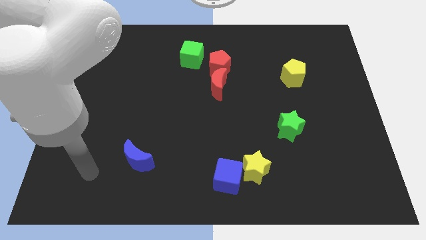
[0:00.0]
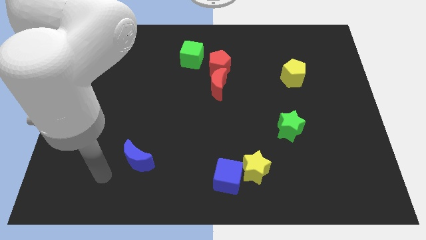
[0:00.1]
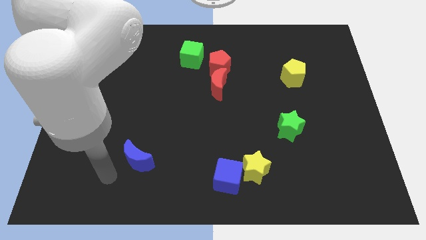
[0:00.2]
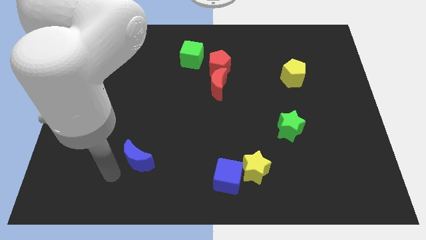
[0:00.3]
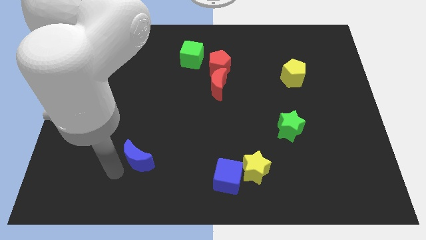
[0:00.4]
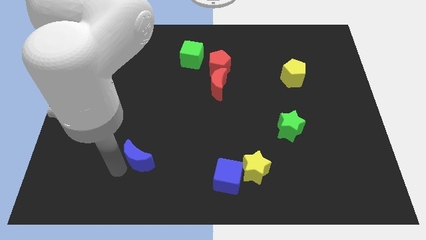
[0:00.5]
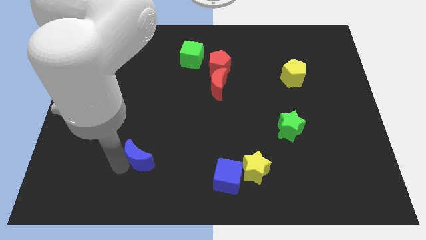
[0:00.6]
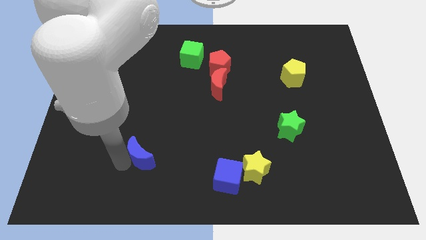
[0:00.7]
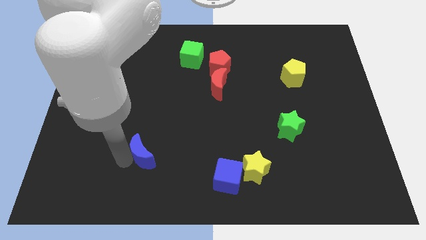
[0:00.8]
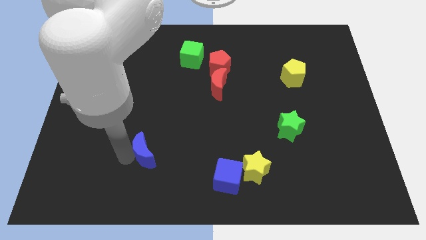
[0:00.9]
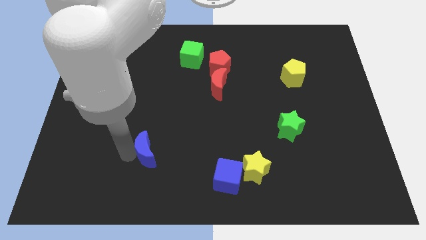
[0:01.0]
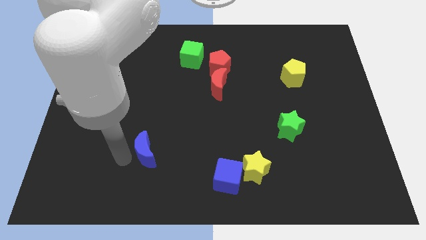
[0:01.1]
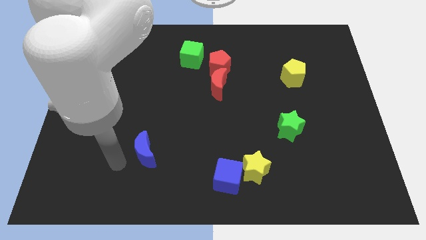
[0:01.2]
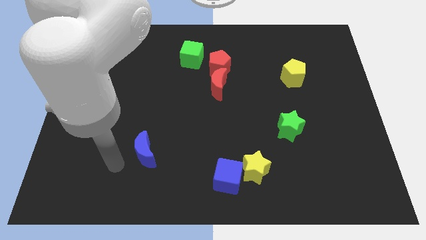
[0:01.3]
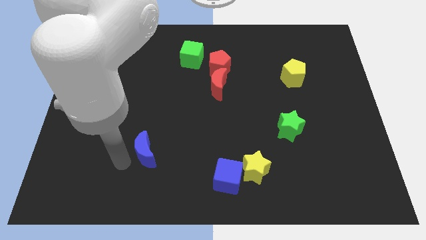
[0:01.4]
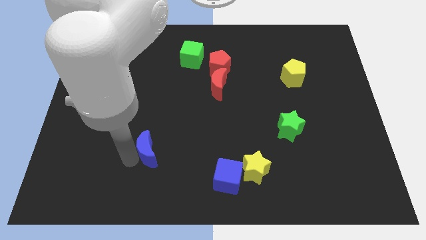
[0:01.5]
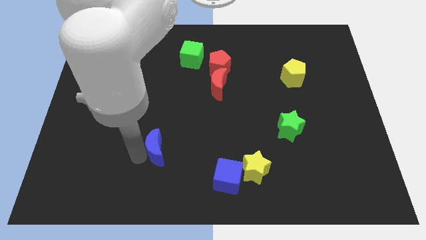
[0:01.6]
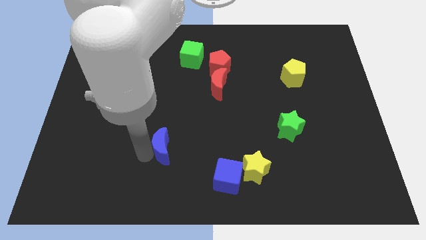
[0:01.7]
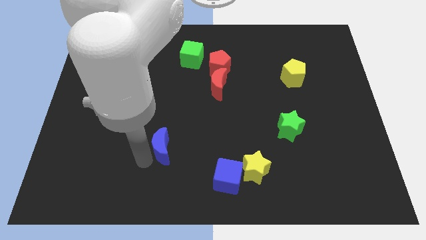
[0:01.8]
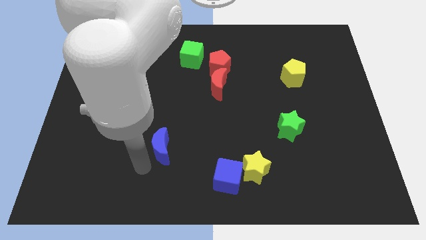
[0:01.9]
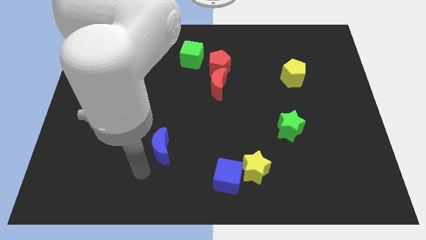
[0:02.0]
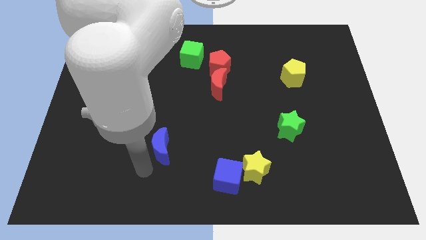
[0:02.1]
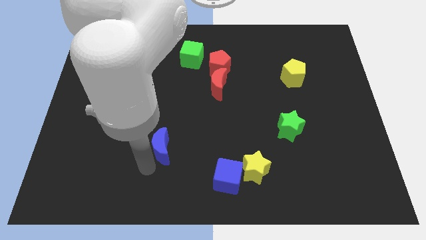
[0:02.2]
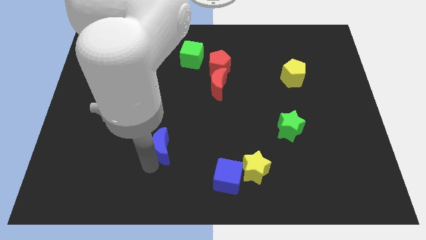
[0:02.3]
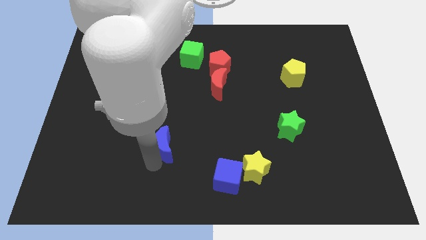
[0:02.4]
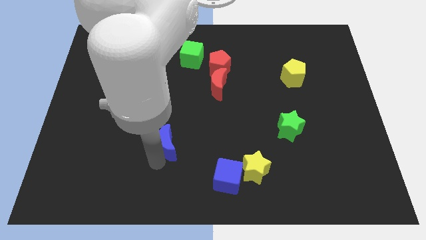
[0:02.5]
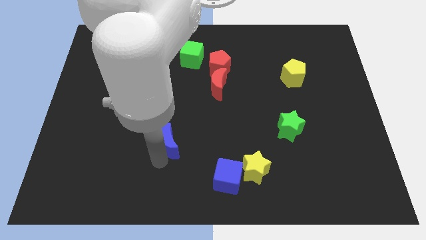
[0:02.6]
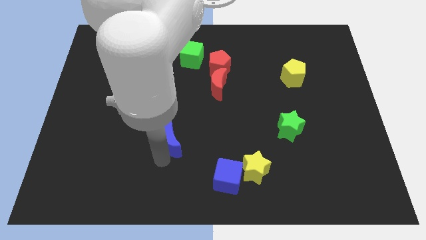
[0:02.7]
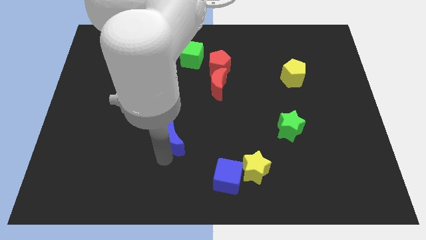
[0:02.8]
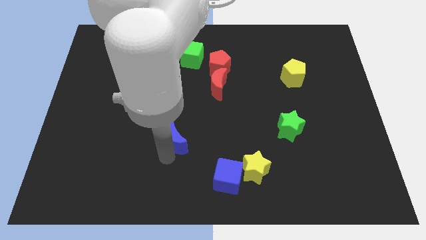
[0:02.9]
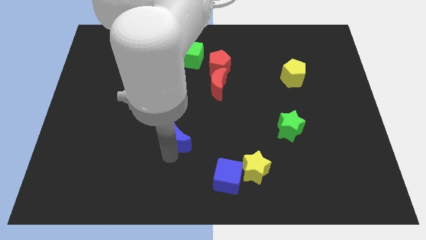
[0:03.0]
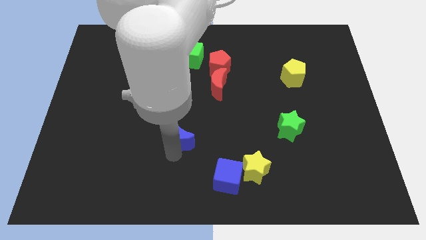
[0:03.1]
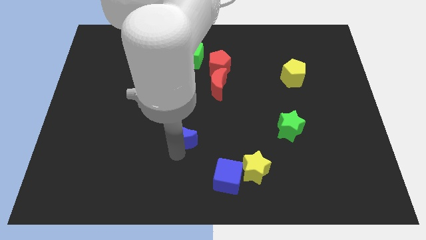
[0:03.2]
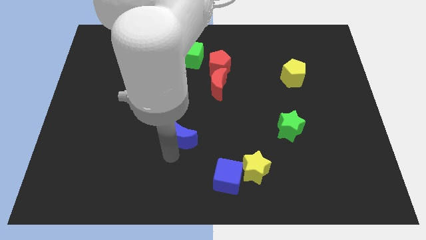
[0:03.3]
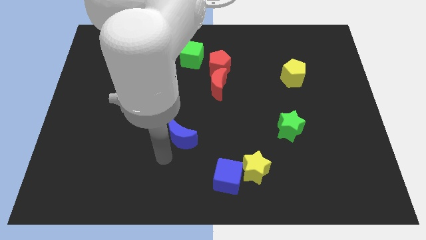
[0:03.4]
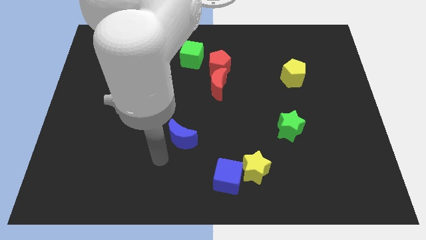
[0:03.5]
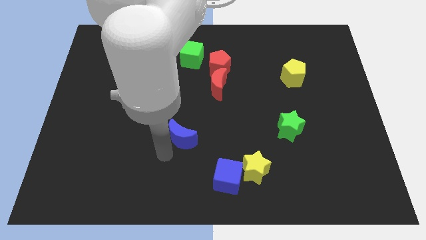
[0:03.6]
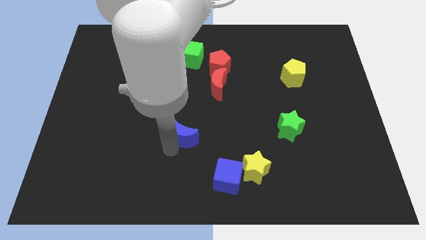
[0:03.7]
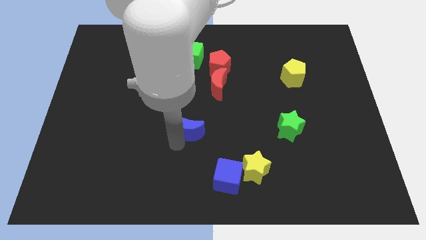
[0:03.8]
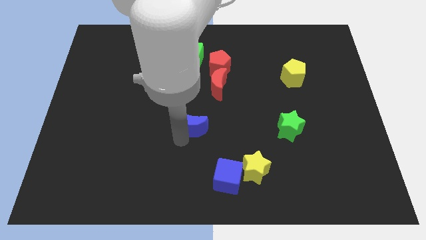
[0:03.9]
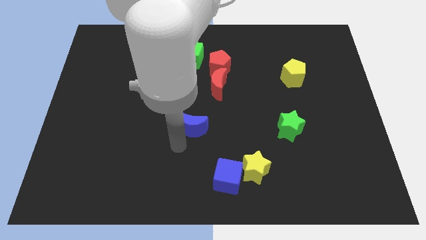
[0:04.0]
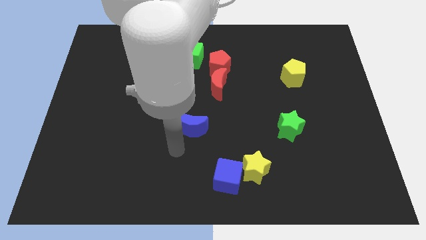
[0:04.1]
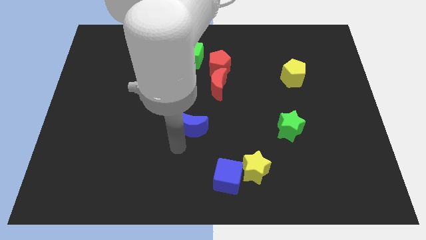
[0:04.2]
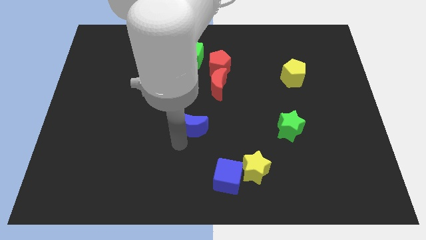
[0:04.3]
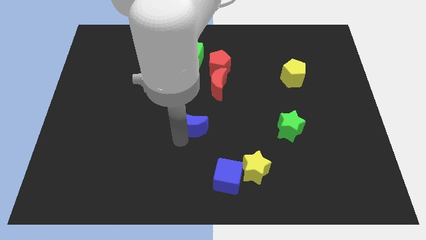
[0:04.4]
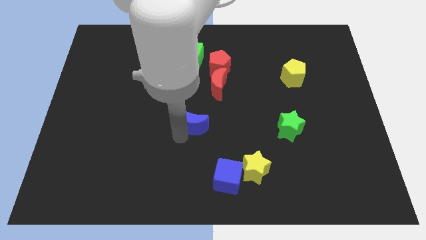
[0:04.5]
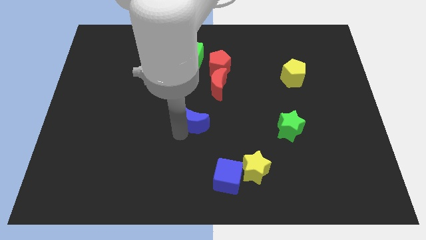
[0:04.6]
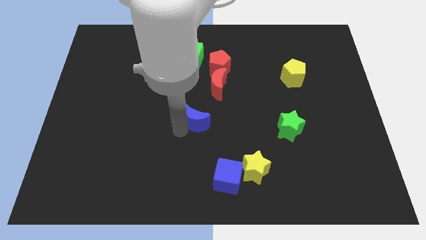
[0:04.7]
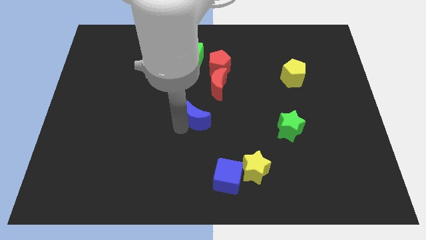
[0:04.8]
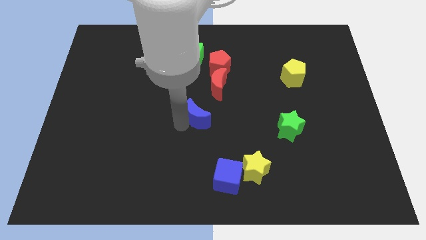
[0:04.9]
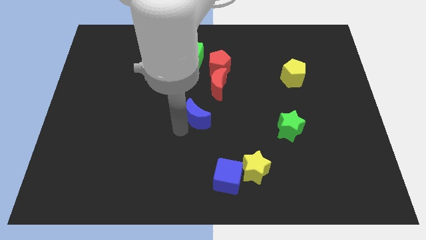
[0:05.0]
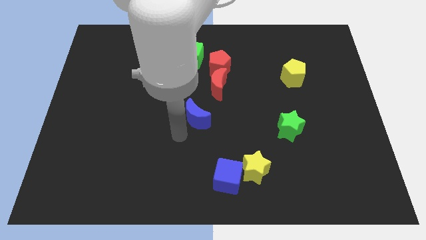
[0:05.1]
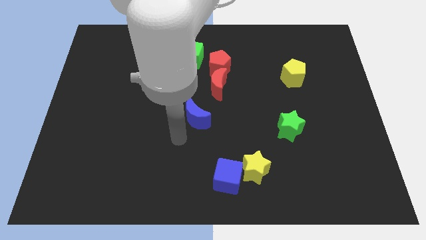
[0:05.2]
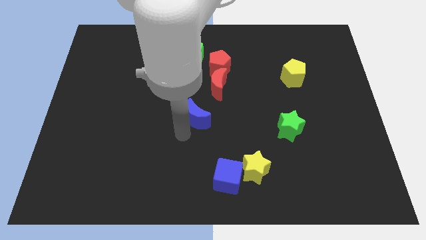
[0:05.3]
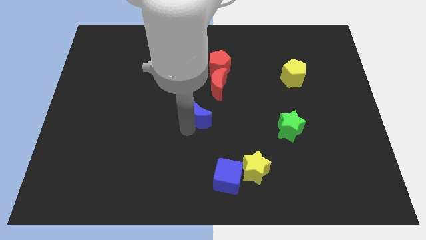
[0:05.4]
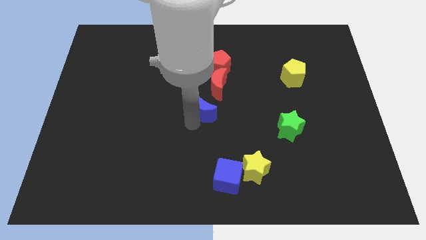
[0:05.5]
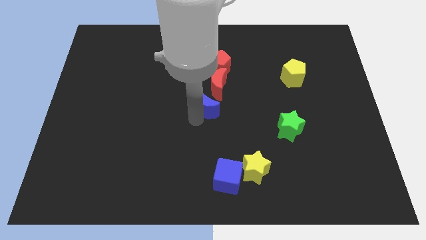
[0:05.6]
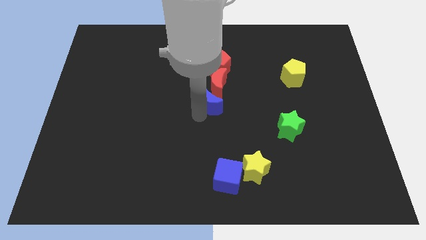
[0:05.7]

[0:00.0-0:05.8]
push the blue moon next to the red moon

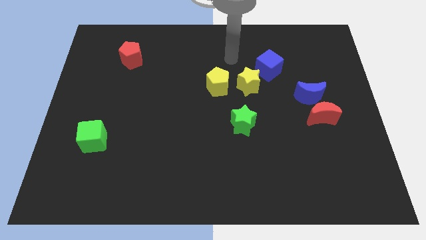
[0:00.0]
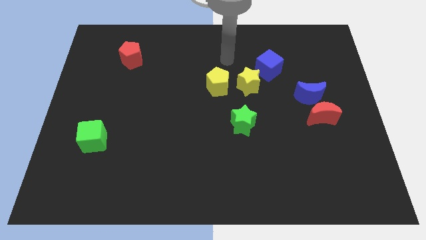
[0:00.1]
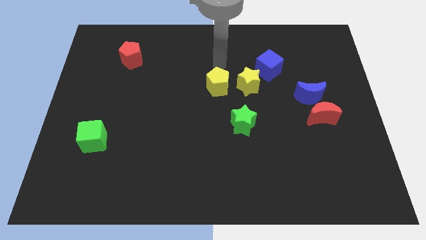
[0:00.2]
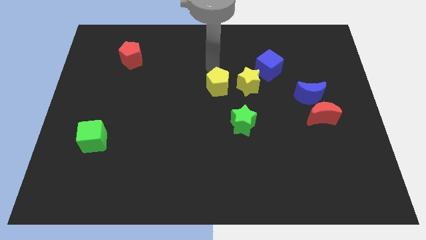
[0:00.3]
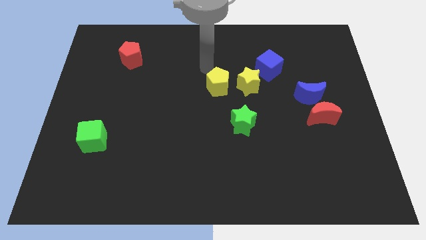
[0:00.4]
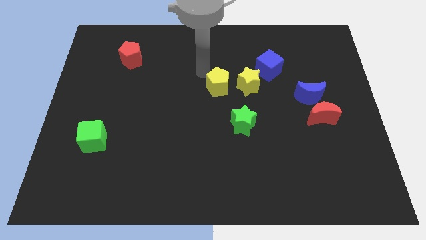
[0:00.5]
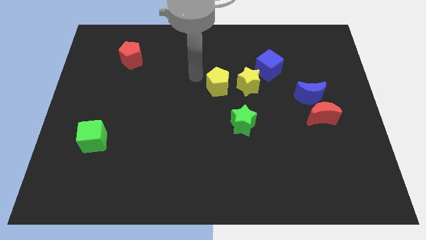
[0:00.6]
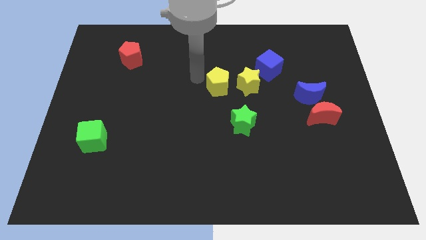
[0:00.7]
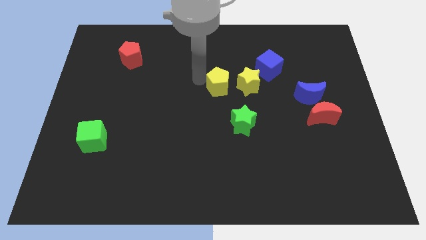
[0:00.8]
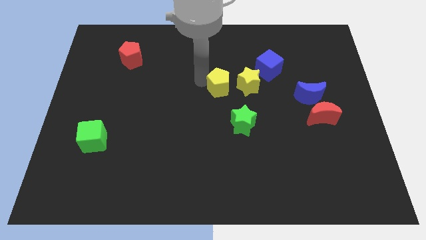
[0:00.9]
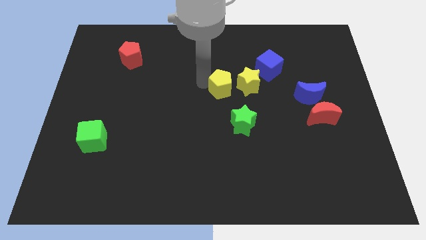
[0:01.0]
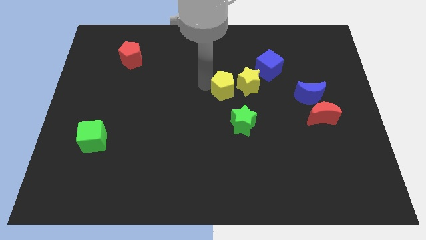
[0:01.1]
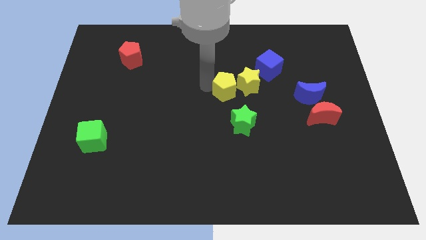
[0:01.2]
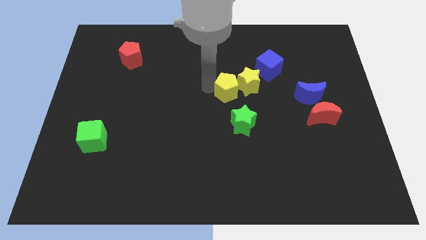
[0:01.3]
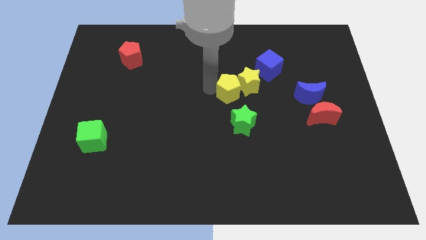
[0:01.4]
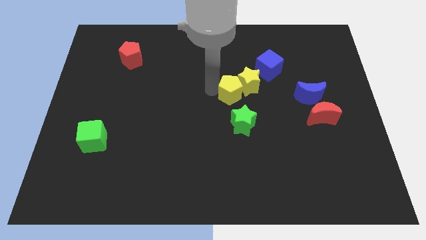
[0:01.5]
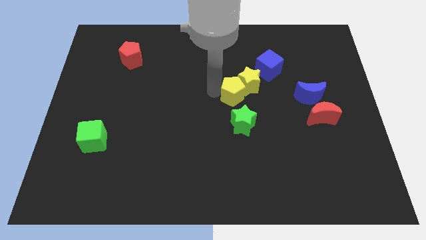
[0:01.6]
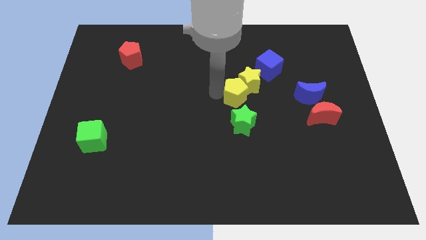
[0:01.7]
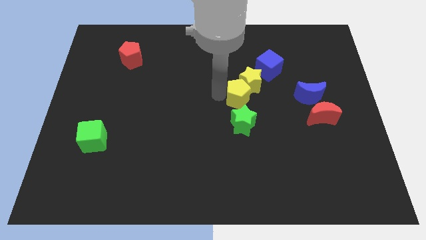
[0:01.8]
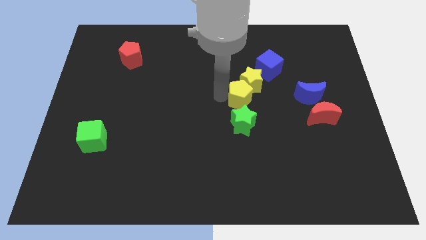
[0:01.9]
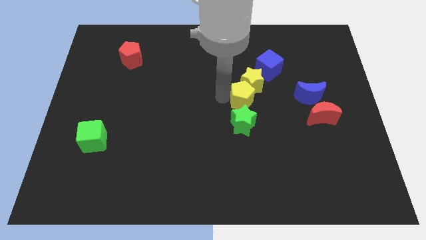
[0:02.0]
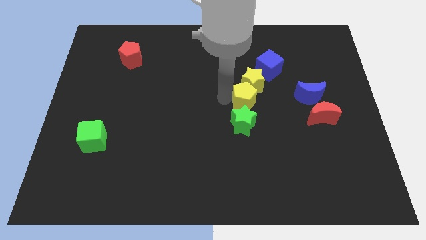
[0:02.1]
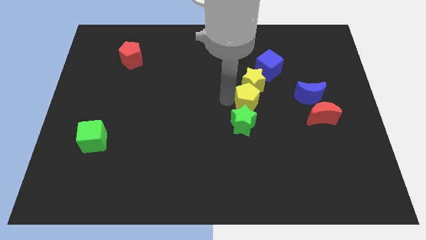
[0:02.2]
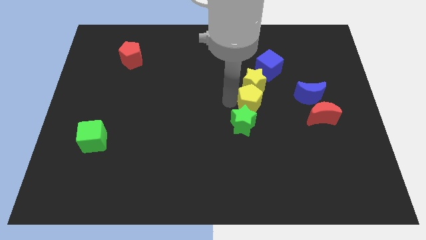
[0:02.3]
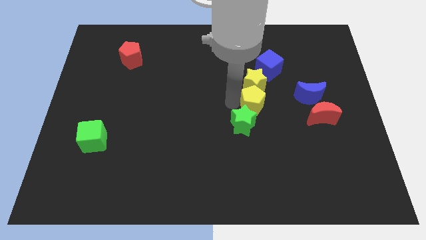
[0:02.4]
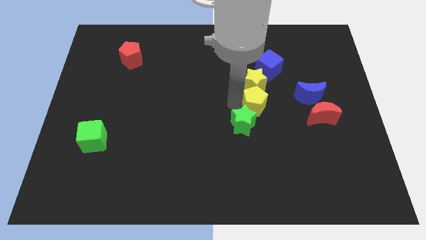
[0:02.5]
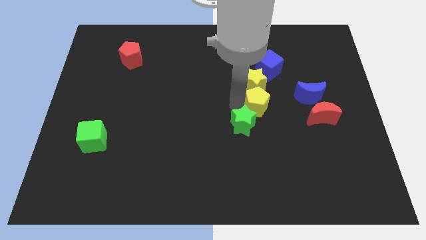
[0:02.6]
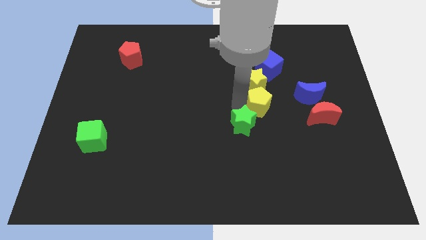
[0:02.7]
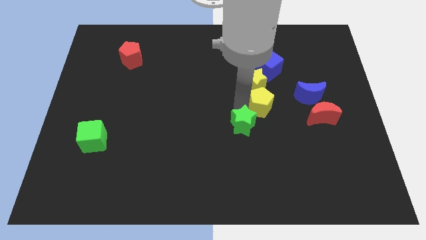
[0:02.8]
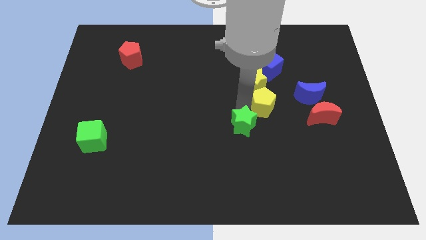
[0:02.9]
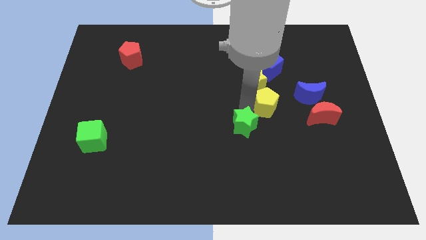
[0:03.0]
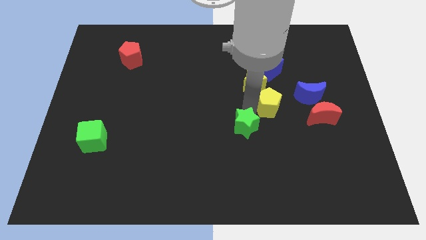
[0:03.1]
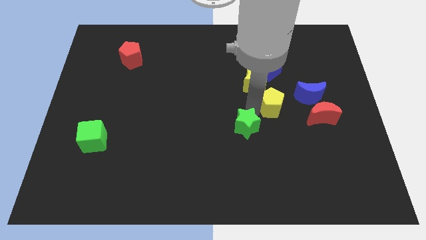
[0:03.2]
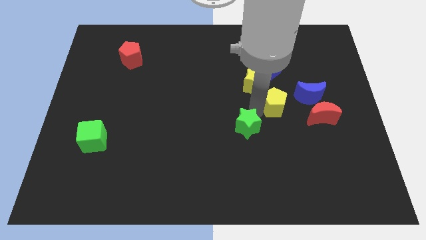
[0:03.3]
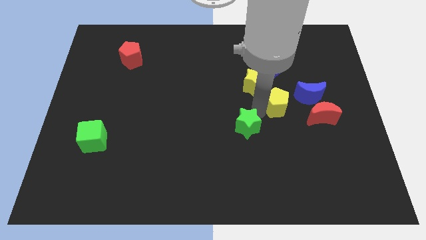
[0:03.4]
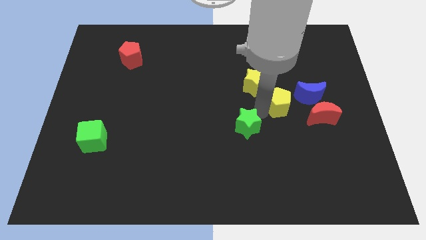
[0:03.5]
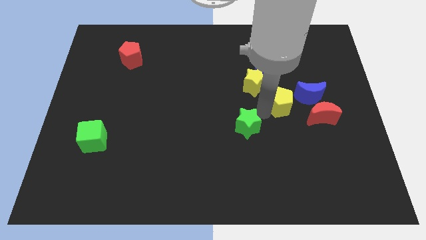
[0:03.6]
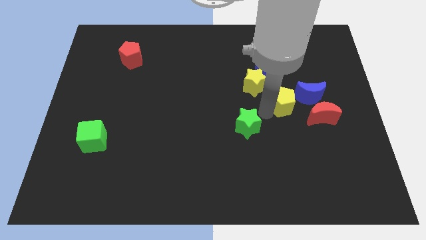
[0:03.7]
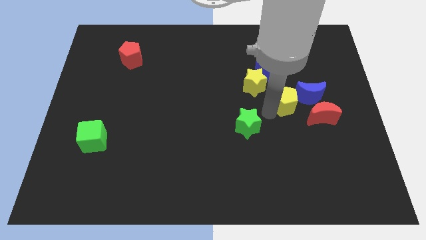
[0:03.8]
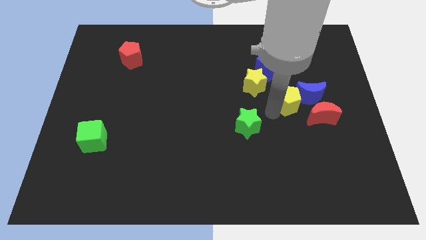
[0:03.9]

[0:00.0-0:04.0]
move the yellow pentagon to the blue moon
